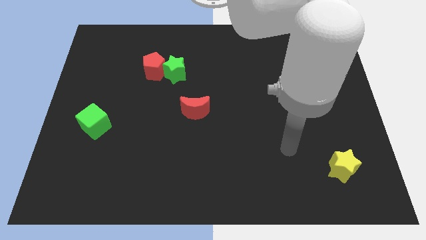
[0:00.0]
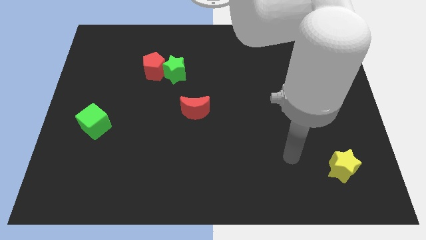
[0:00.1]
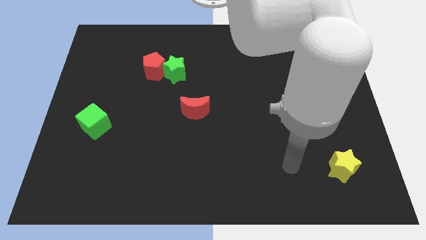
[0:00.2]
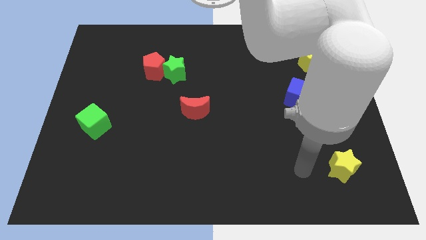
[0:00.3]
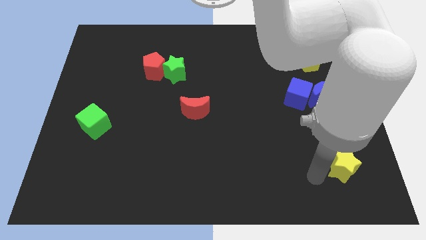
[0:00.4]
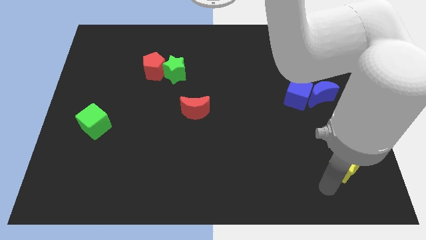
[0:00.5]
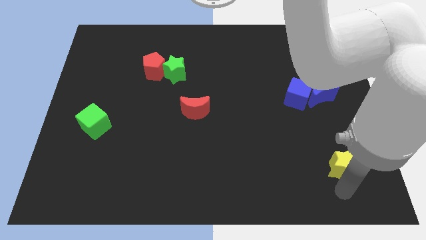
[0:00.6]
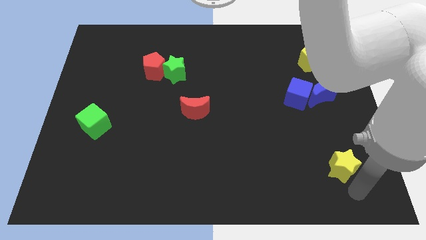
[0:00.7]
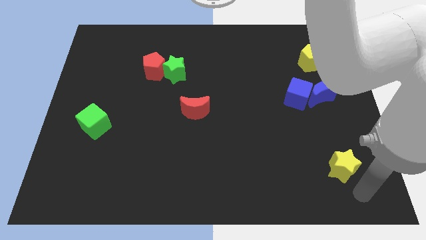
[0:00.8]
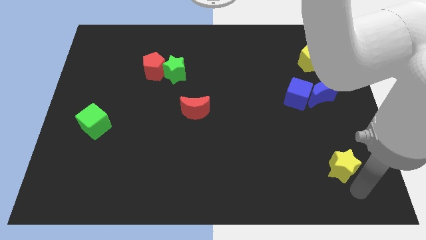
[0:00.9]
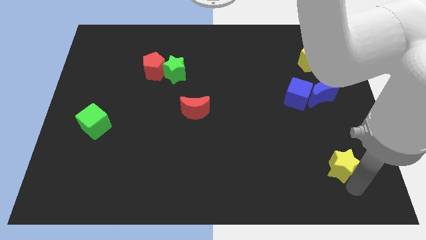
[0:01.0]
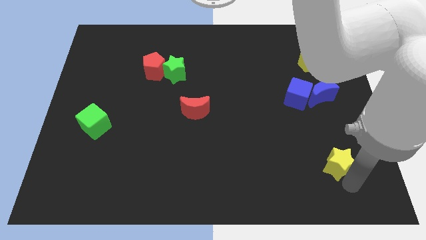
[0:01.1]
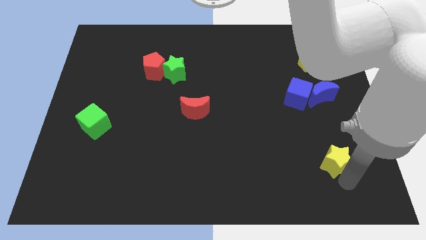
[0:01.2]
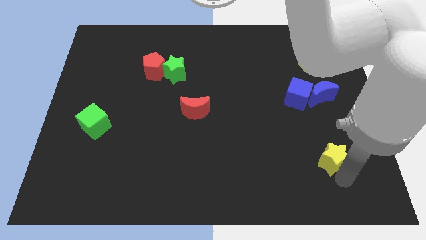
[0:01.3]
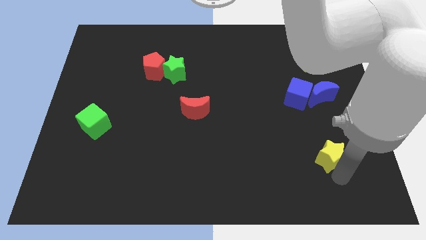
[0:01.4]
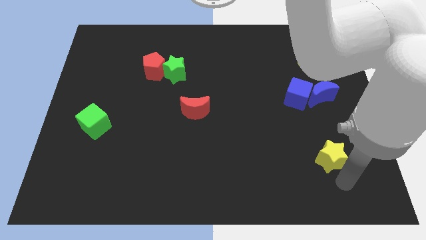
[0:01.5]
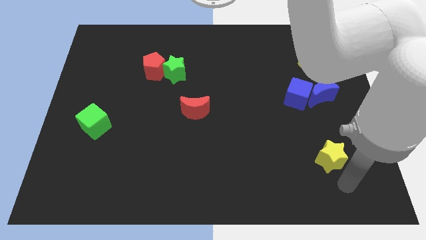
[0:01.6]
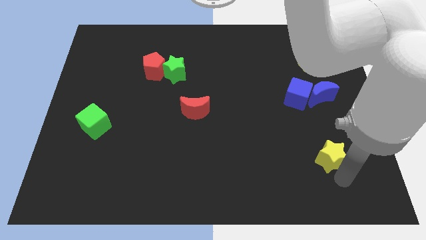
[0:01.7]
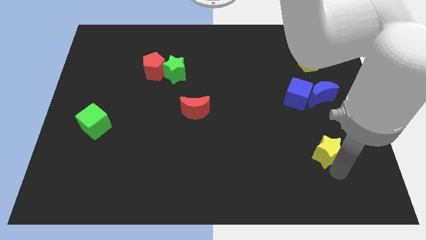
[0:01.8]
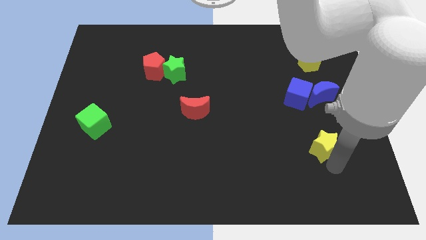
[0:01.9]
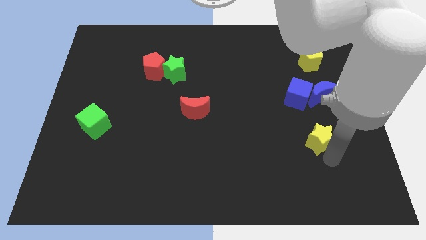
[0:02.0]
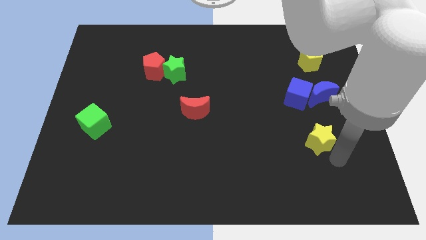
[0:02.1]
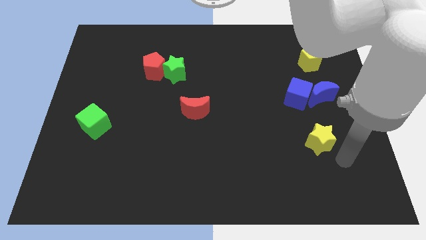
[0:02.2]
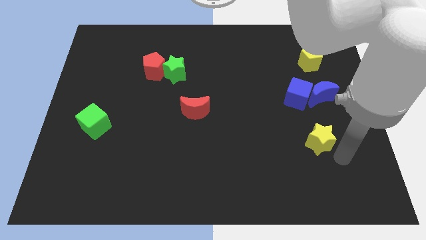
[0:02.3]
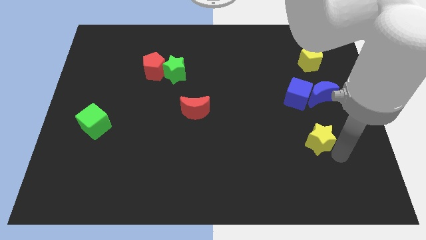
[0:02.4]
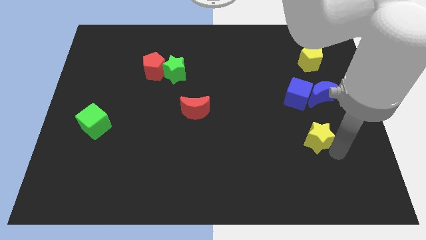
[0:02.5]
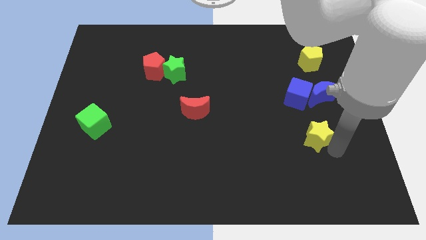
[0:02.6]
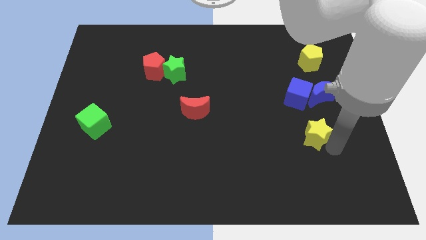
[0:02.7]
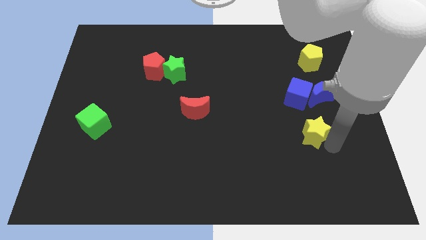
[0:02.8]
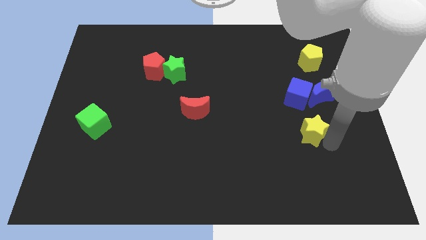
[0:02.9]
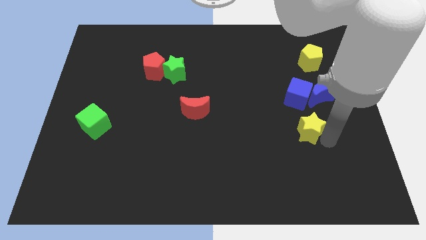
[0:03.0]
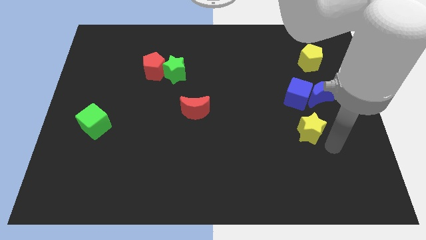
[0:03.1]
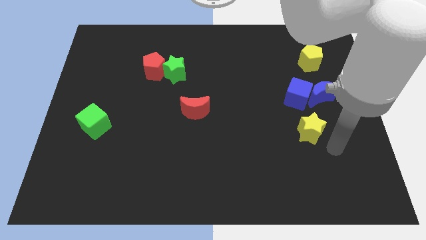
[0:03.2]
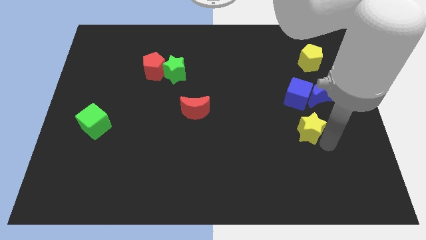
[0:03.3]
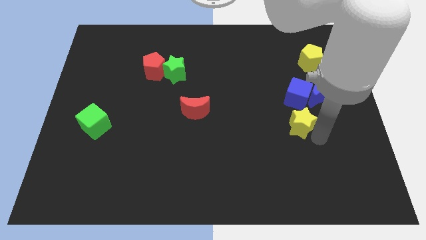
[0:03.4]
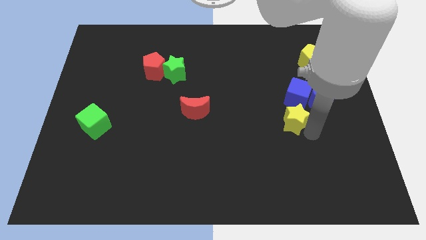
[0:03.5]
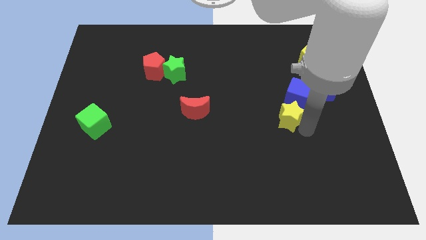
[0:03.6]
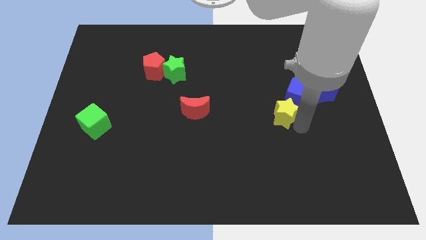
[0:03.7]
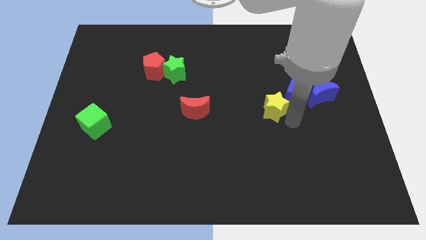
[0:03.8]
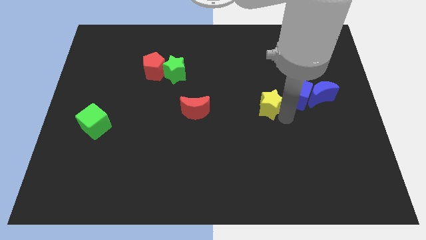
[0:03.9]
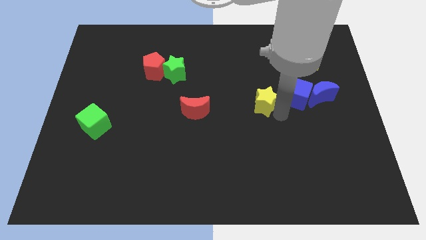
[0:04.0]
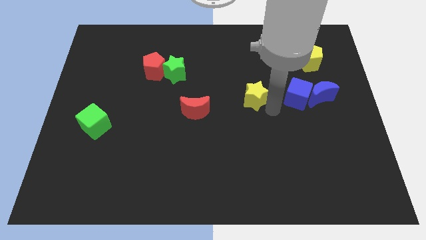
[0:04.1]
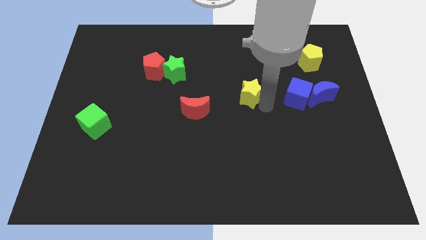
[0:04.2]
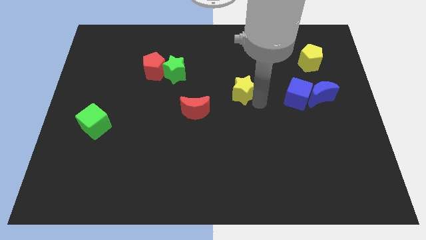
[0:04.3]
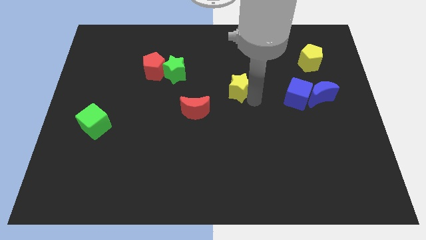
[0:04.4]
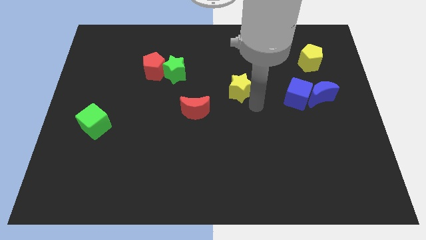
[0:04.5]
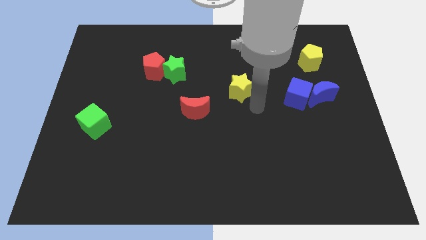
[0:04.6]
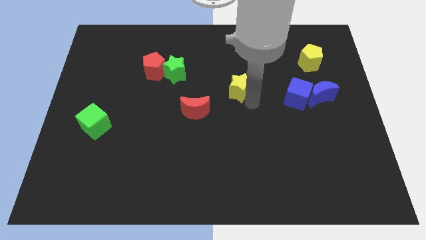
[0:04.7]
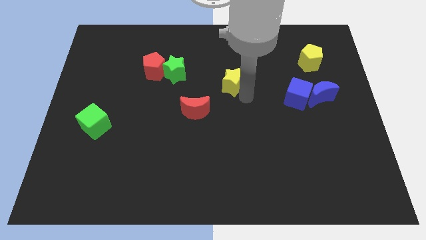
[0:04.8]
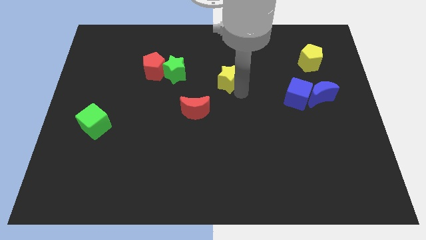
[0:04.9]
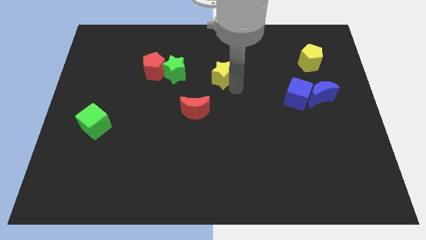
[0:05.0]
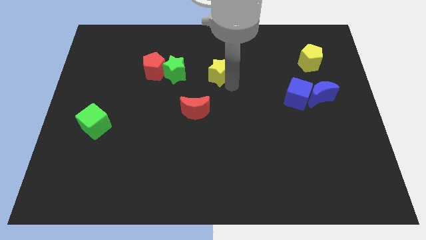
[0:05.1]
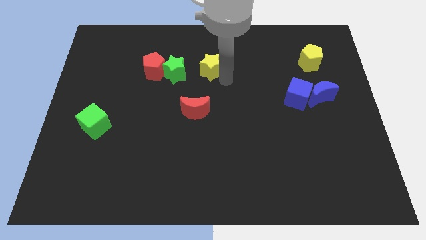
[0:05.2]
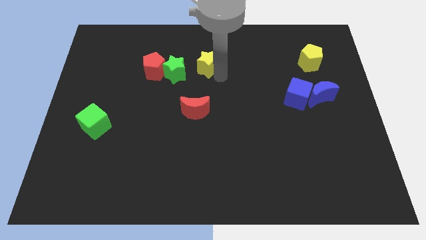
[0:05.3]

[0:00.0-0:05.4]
put the yellow star to the top right of the green star

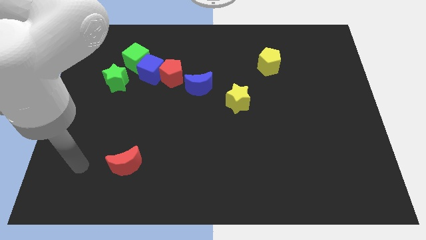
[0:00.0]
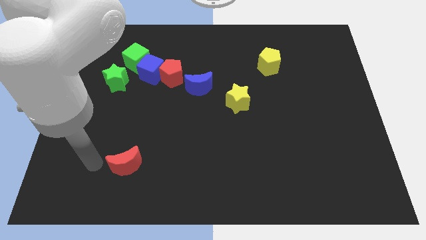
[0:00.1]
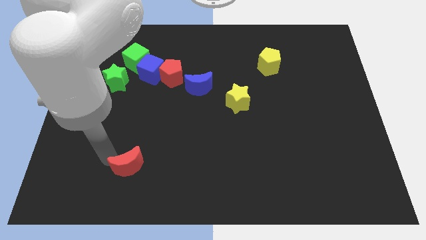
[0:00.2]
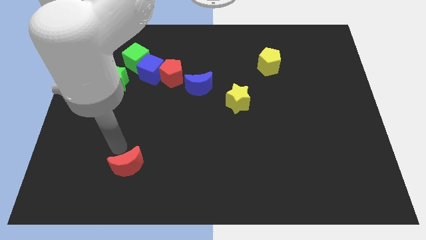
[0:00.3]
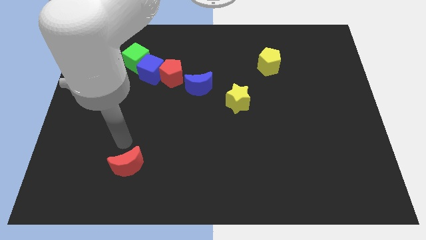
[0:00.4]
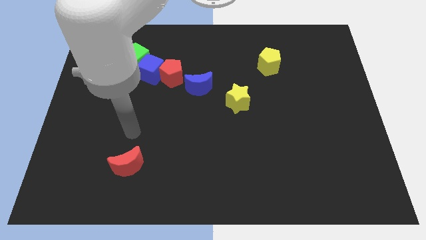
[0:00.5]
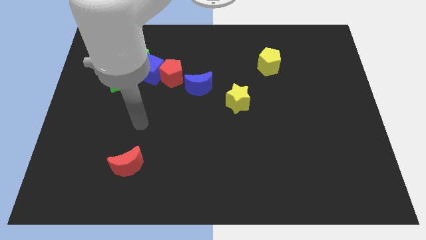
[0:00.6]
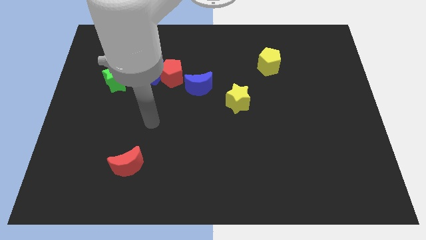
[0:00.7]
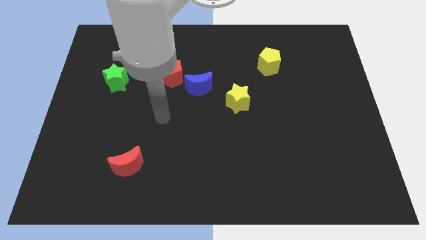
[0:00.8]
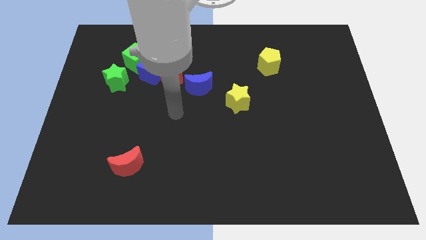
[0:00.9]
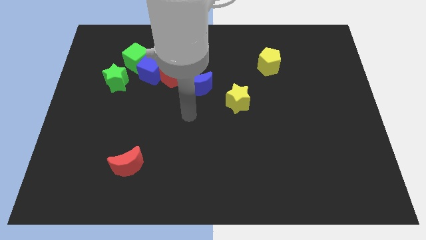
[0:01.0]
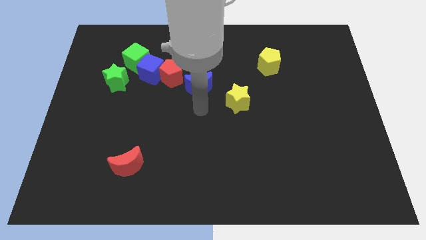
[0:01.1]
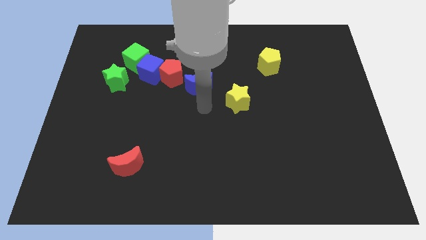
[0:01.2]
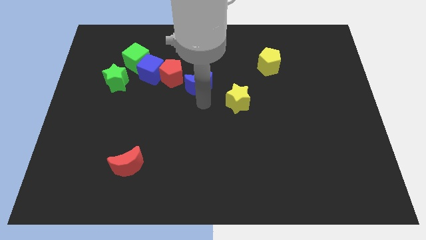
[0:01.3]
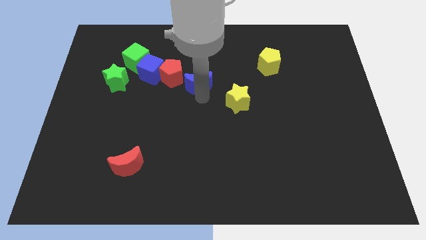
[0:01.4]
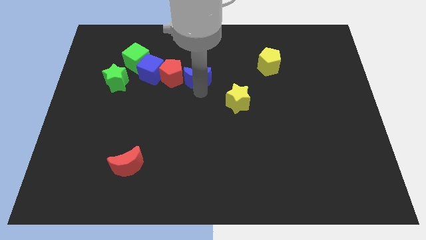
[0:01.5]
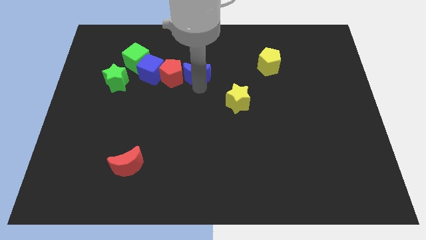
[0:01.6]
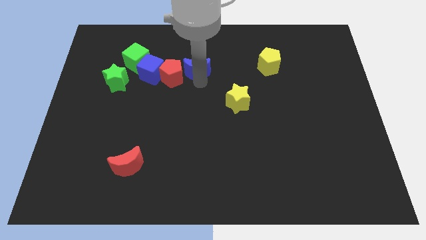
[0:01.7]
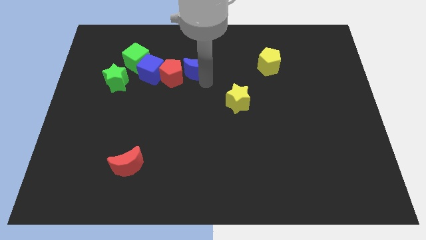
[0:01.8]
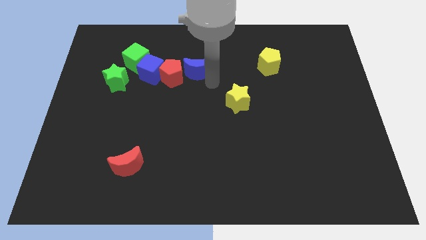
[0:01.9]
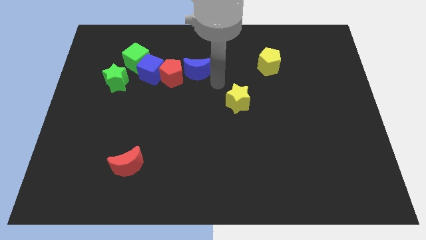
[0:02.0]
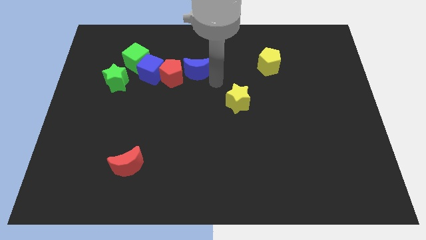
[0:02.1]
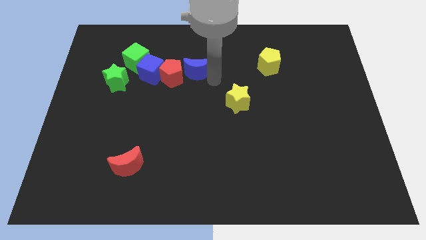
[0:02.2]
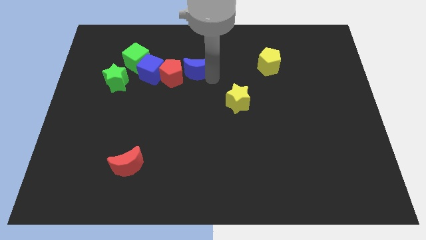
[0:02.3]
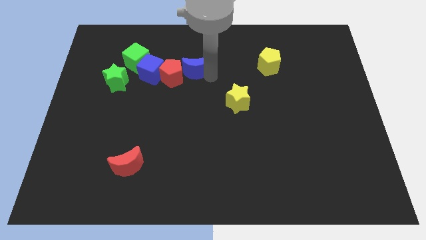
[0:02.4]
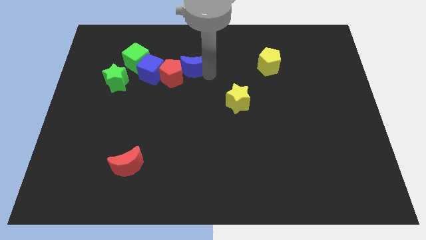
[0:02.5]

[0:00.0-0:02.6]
put the blue moon to the right of the green cube

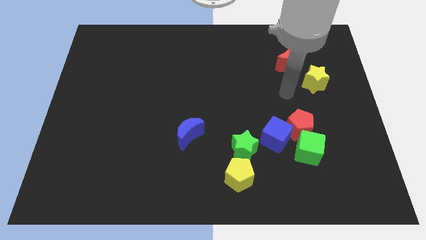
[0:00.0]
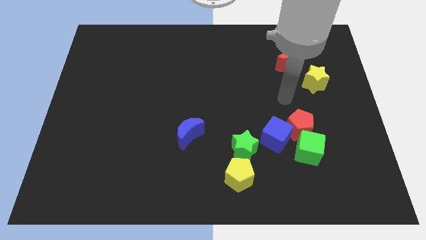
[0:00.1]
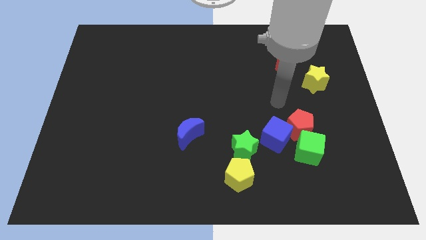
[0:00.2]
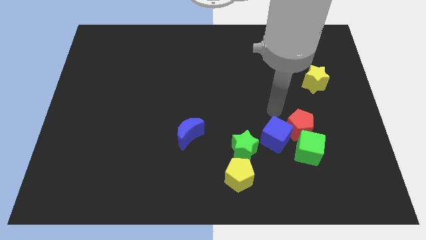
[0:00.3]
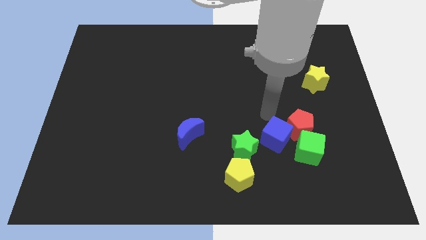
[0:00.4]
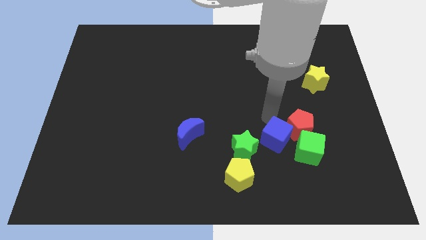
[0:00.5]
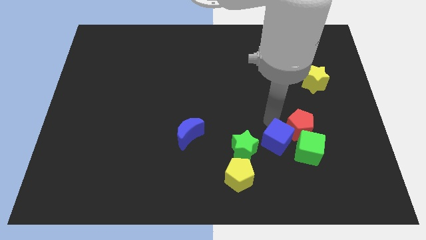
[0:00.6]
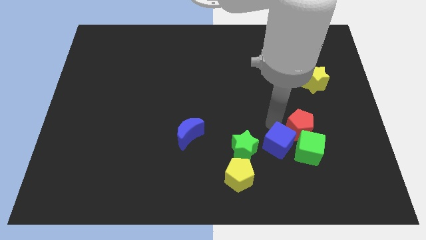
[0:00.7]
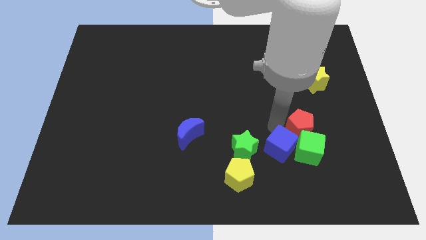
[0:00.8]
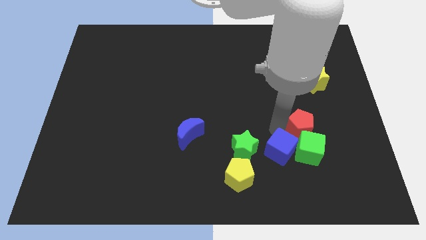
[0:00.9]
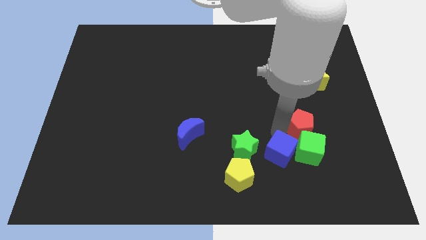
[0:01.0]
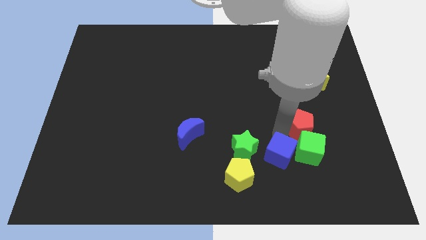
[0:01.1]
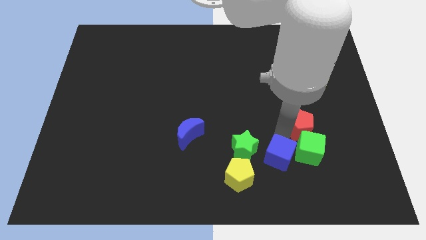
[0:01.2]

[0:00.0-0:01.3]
move the blue cube to the right of the yellow pentagon
